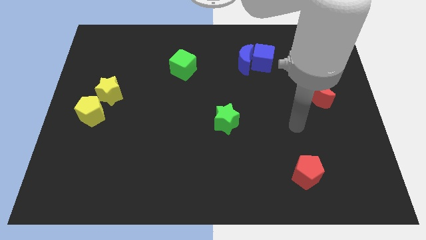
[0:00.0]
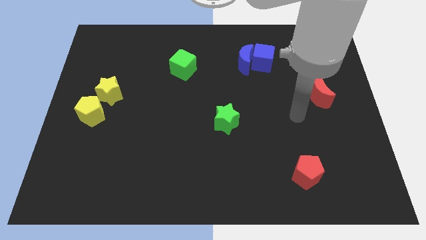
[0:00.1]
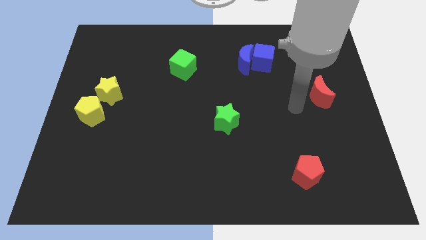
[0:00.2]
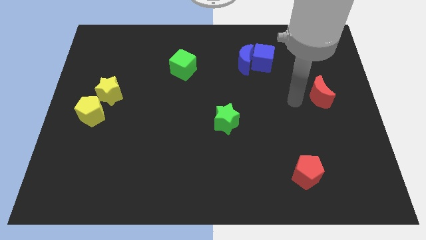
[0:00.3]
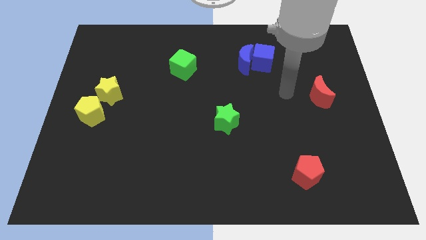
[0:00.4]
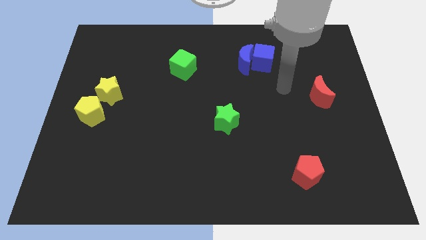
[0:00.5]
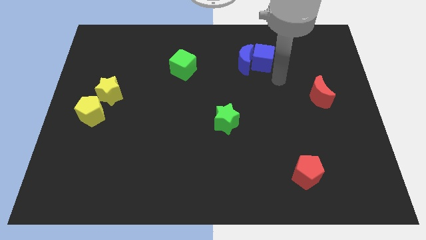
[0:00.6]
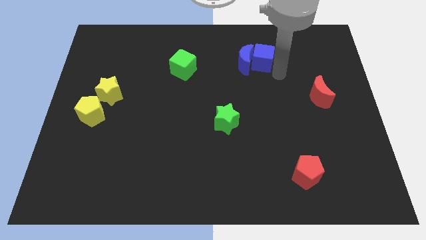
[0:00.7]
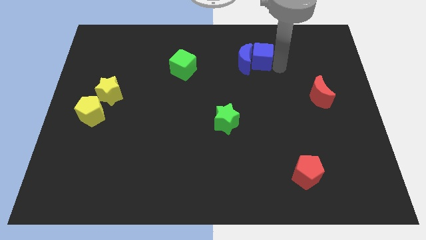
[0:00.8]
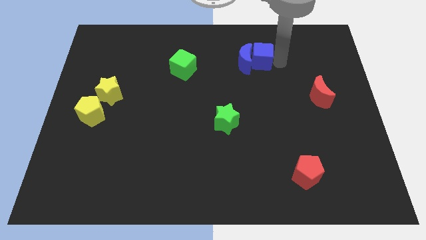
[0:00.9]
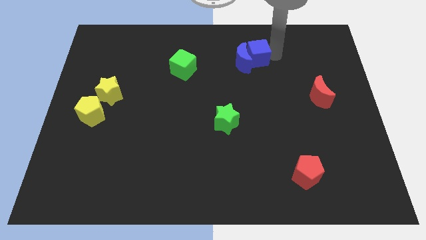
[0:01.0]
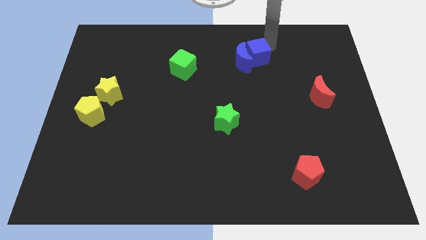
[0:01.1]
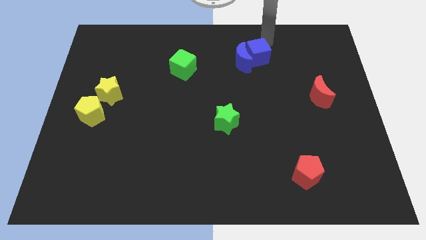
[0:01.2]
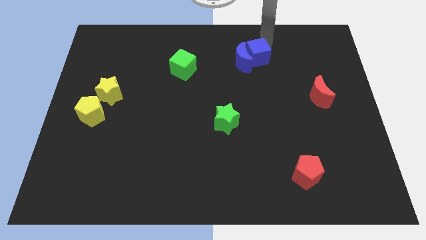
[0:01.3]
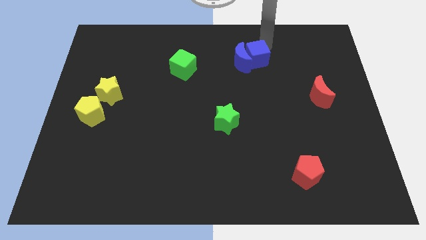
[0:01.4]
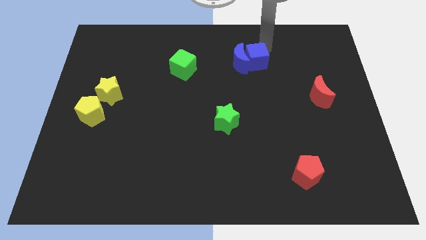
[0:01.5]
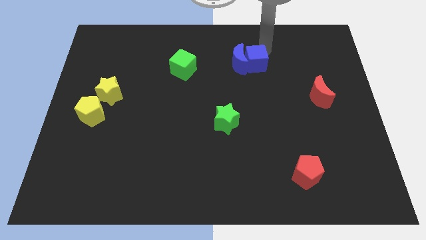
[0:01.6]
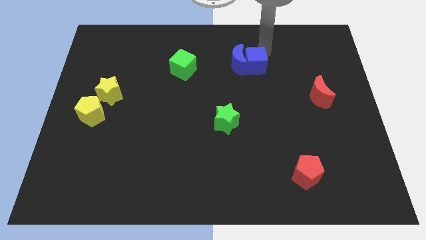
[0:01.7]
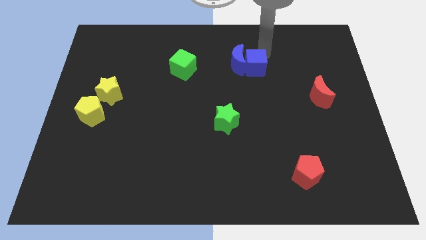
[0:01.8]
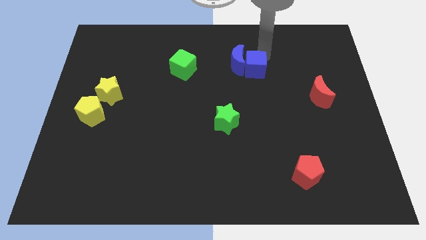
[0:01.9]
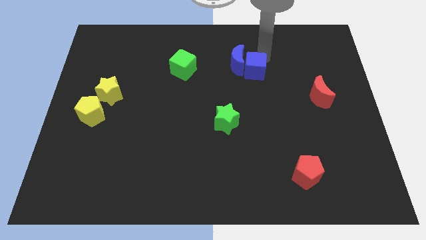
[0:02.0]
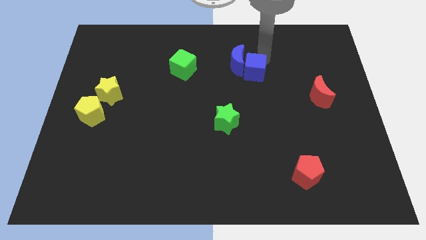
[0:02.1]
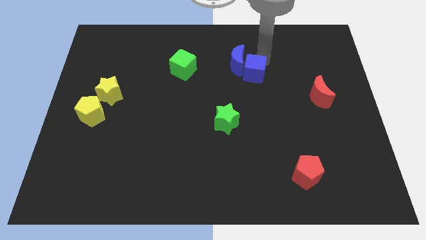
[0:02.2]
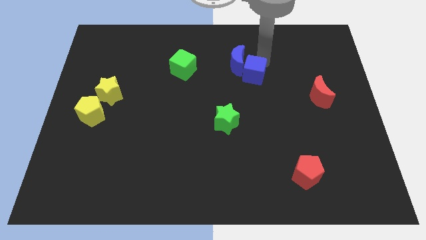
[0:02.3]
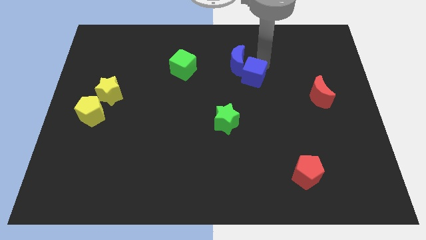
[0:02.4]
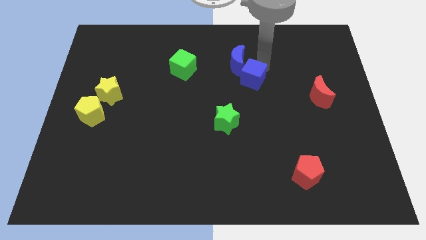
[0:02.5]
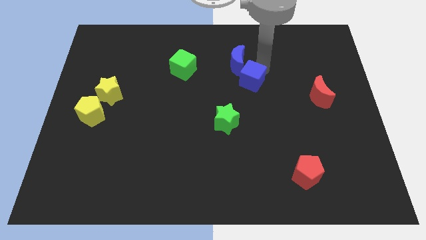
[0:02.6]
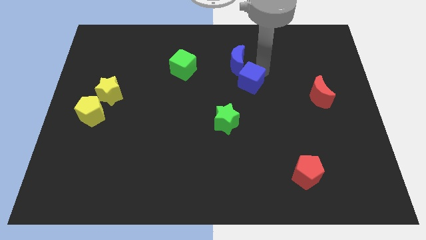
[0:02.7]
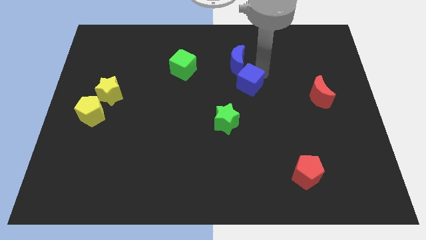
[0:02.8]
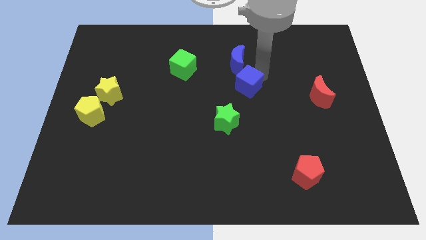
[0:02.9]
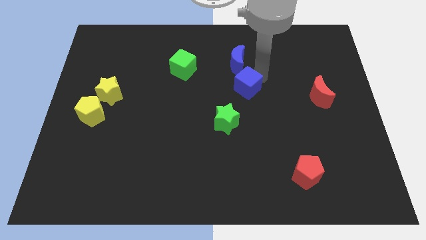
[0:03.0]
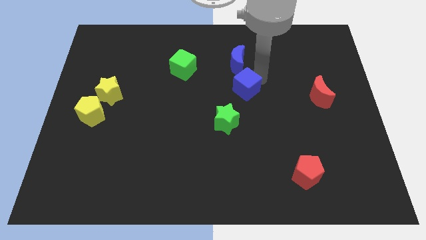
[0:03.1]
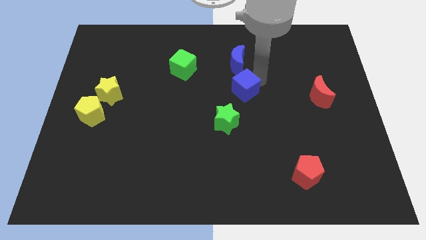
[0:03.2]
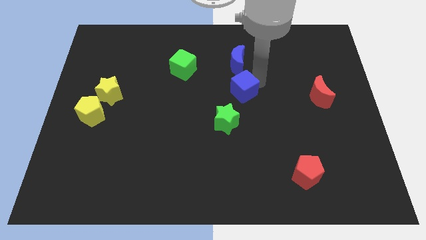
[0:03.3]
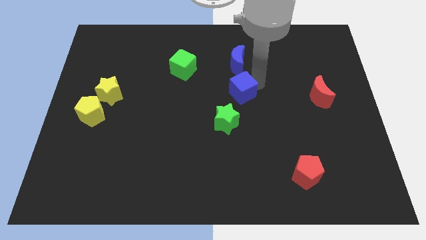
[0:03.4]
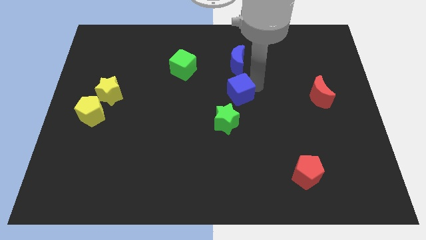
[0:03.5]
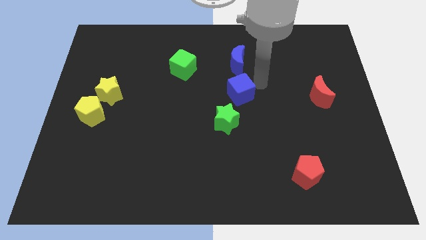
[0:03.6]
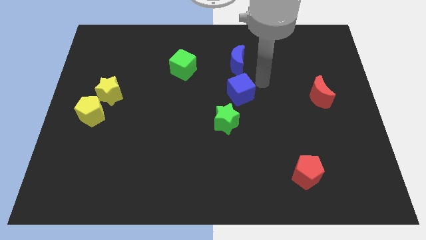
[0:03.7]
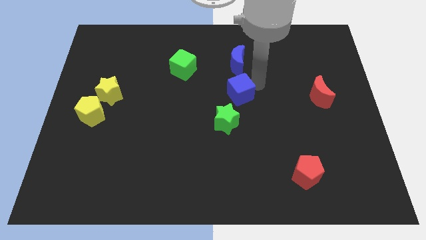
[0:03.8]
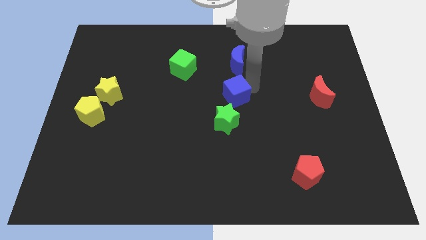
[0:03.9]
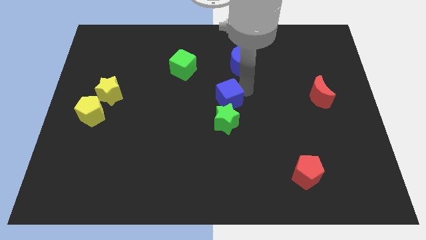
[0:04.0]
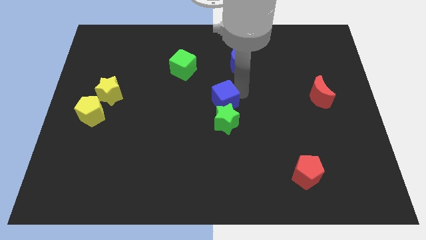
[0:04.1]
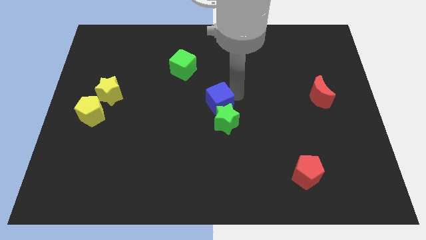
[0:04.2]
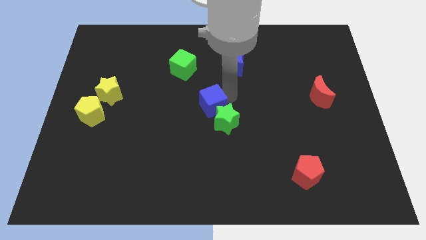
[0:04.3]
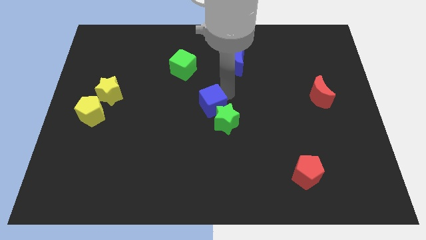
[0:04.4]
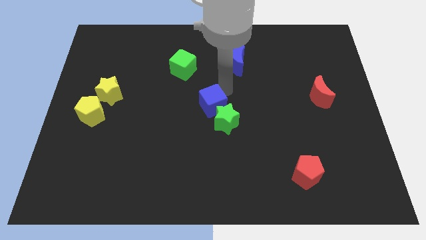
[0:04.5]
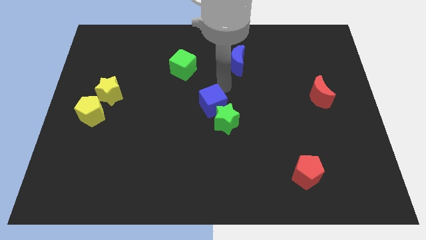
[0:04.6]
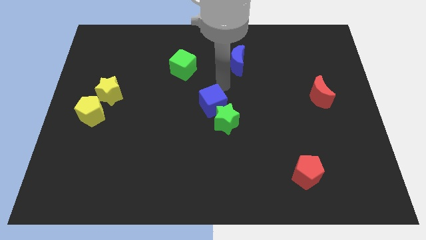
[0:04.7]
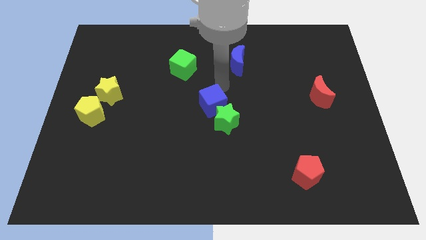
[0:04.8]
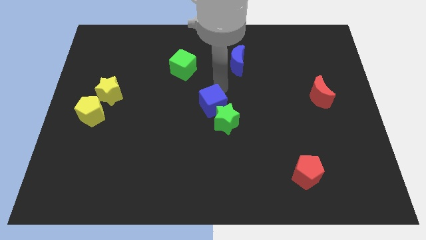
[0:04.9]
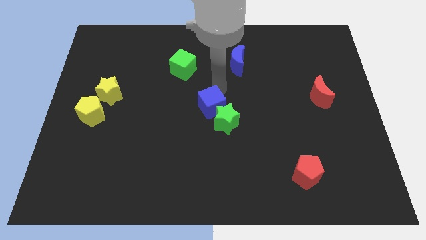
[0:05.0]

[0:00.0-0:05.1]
move the blue cube diagonally downwards and to the left

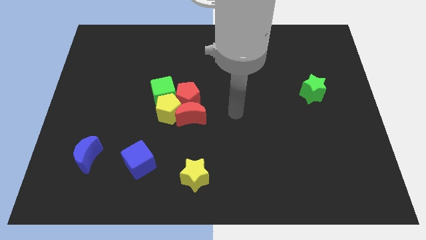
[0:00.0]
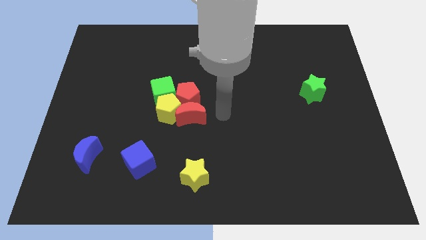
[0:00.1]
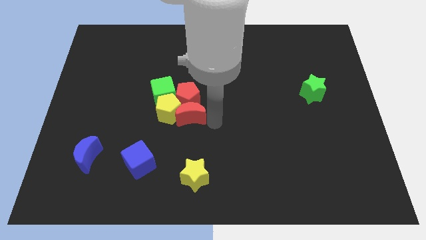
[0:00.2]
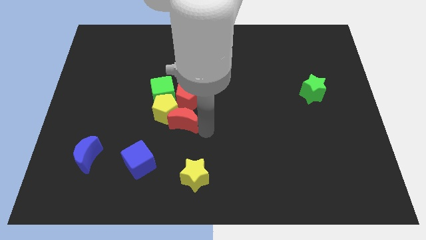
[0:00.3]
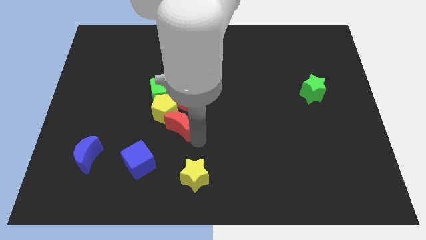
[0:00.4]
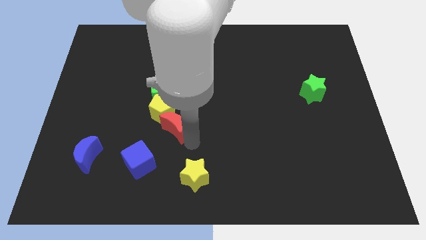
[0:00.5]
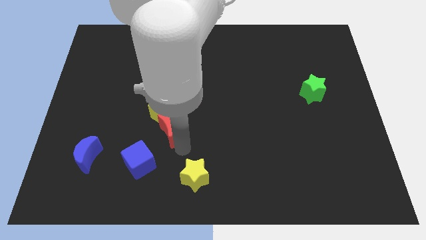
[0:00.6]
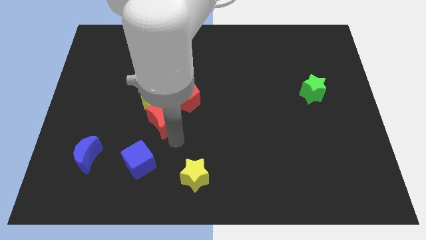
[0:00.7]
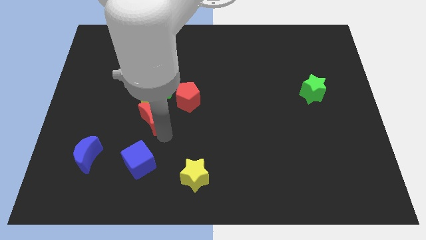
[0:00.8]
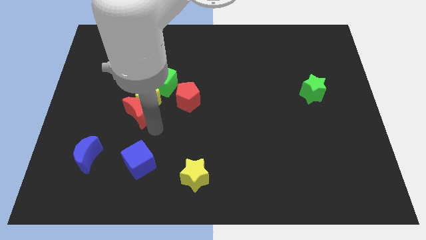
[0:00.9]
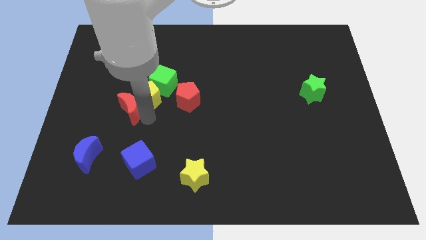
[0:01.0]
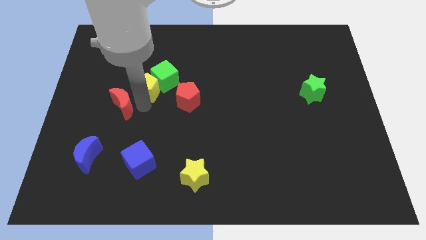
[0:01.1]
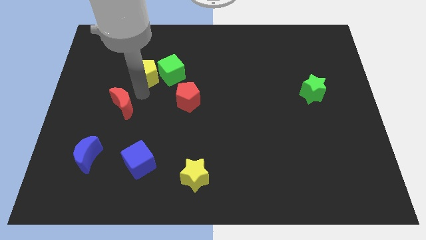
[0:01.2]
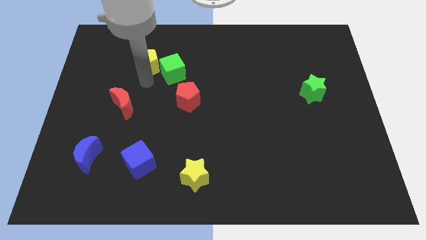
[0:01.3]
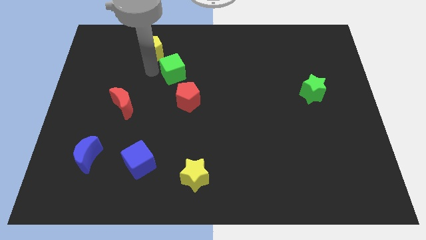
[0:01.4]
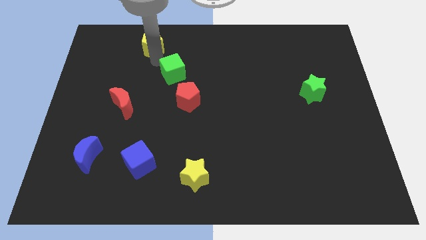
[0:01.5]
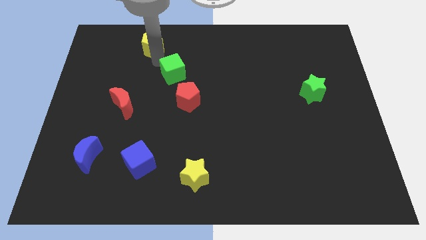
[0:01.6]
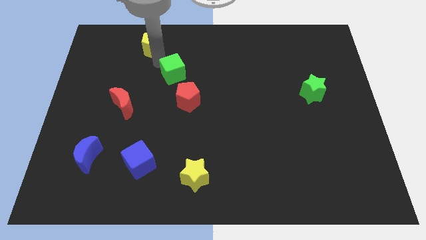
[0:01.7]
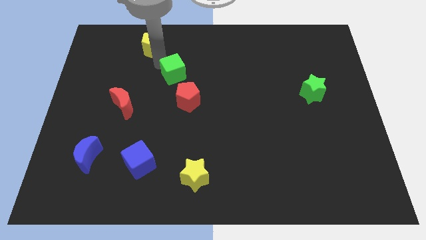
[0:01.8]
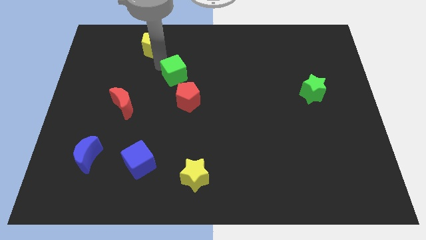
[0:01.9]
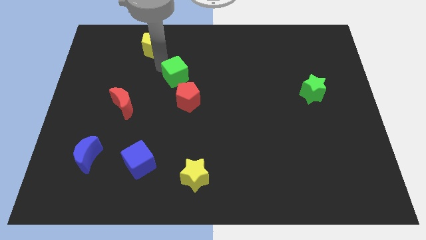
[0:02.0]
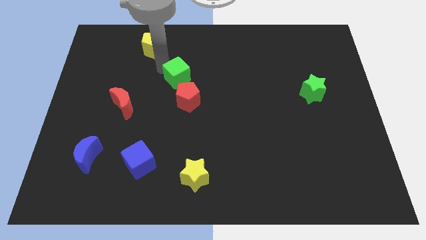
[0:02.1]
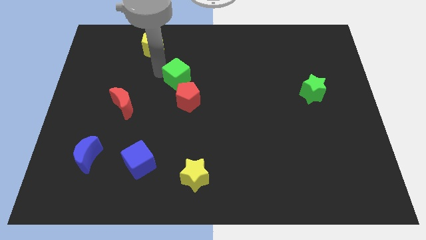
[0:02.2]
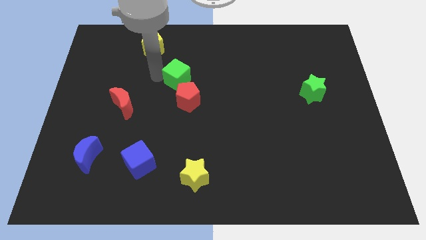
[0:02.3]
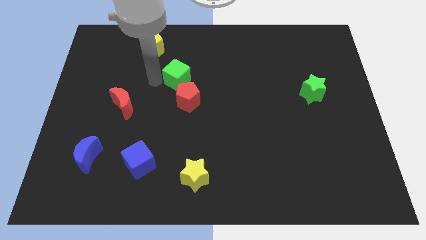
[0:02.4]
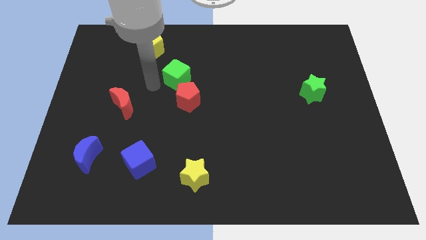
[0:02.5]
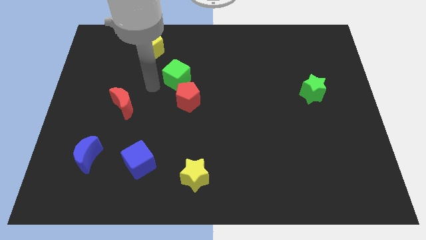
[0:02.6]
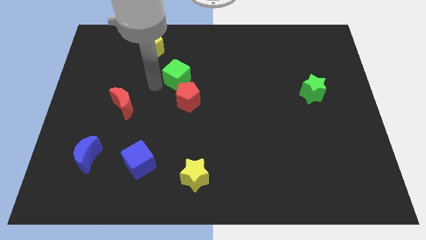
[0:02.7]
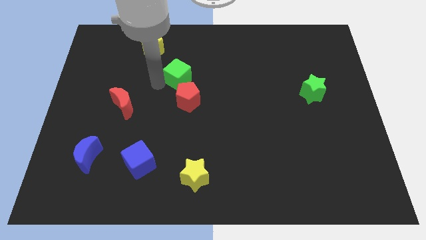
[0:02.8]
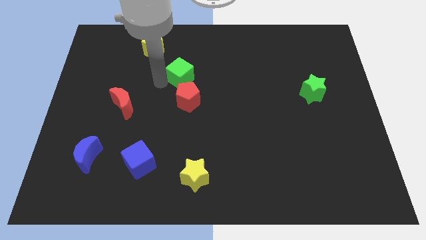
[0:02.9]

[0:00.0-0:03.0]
slide the green cube somewhat diagonally upwards and to the right

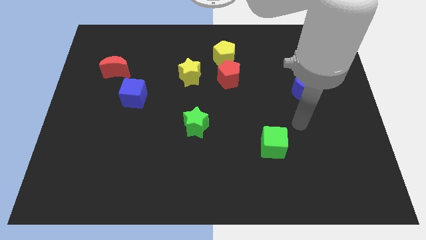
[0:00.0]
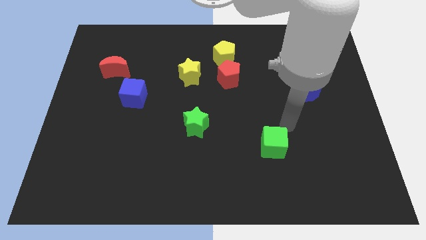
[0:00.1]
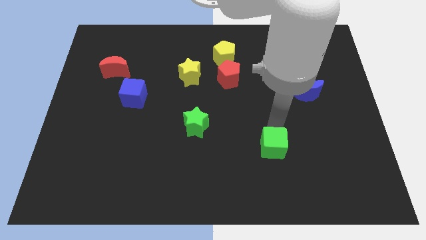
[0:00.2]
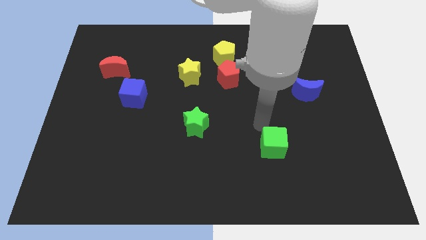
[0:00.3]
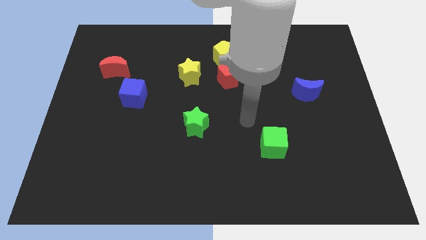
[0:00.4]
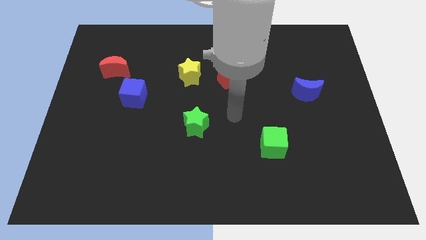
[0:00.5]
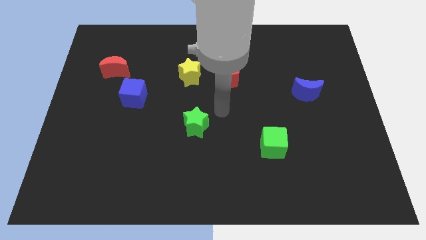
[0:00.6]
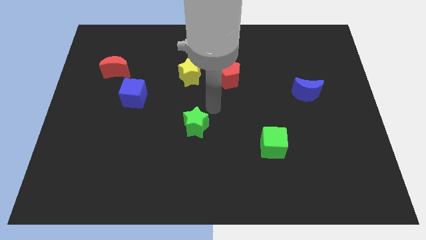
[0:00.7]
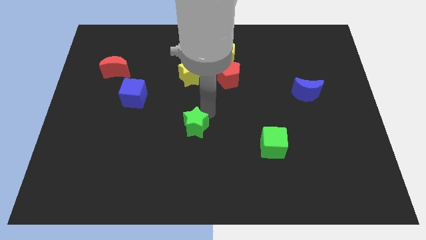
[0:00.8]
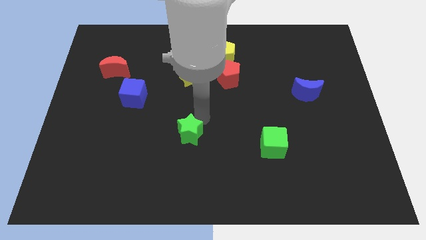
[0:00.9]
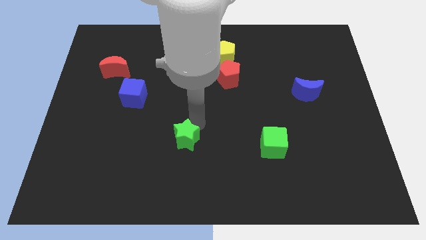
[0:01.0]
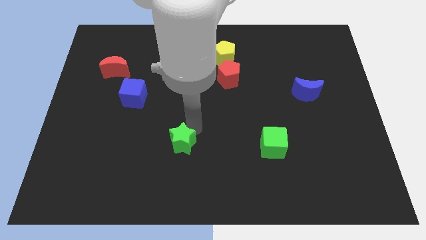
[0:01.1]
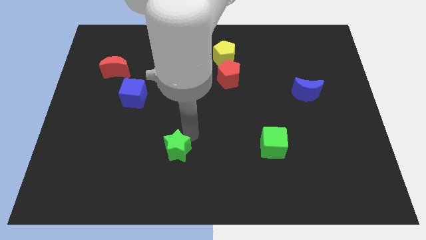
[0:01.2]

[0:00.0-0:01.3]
move the green star a bit downwards and then left
